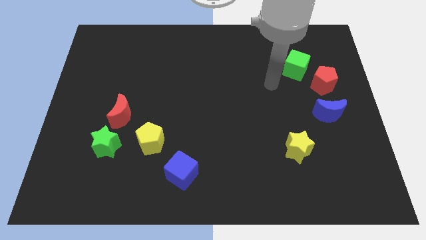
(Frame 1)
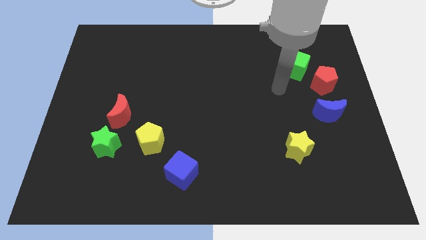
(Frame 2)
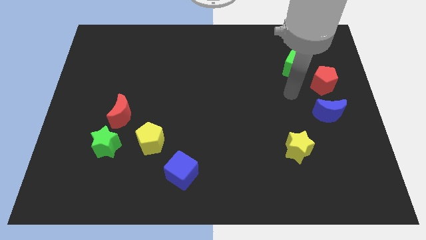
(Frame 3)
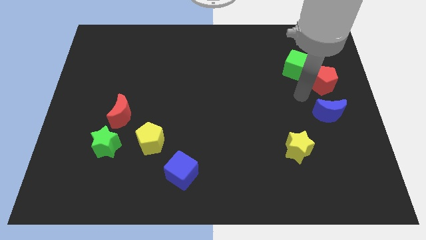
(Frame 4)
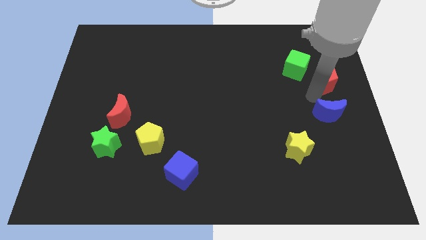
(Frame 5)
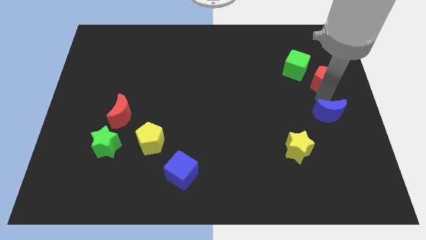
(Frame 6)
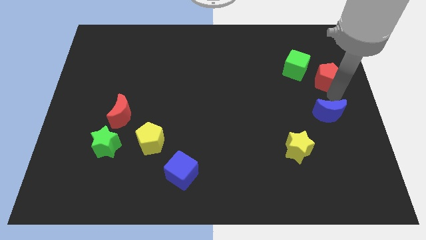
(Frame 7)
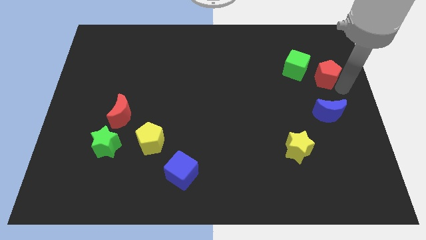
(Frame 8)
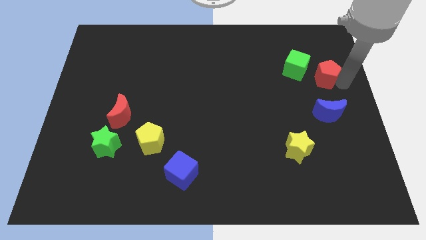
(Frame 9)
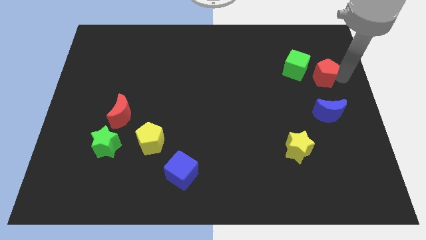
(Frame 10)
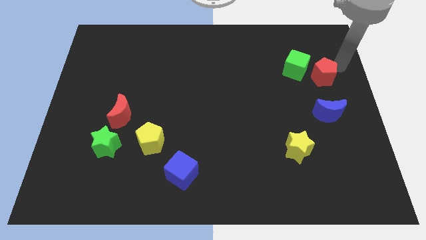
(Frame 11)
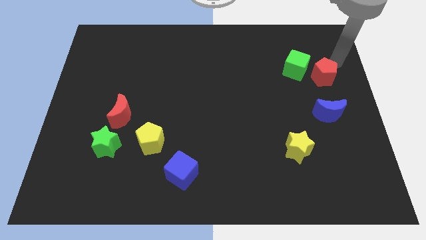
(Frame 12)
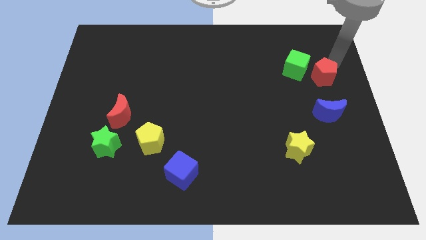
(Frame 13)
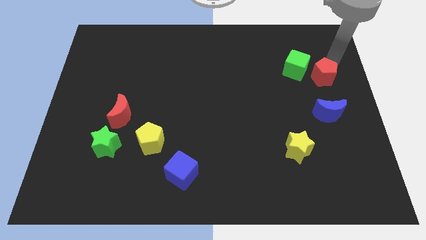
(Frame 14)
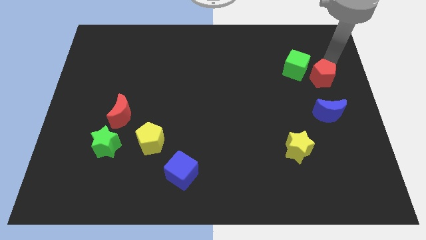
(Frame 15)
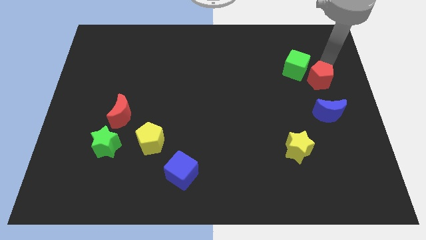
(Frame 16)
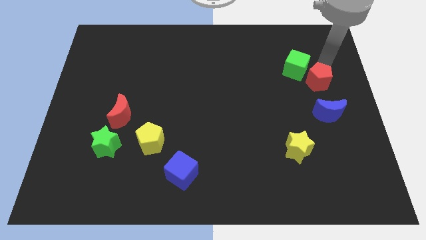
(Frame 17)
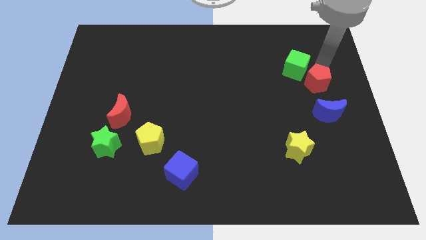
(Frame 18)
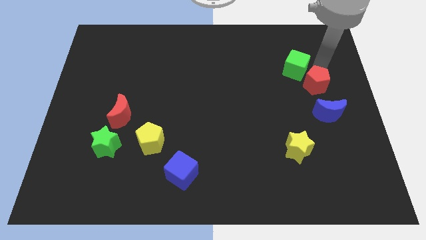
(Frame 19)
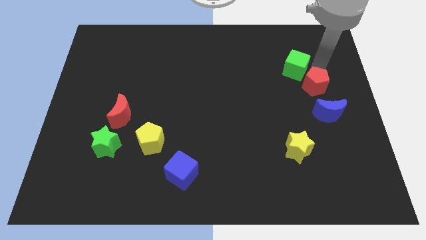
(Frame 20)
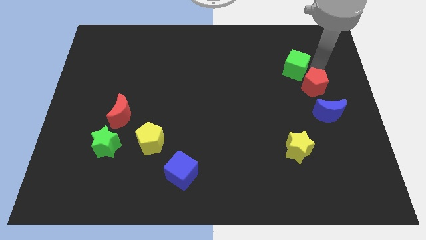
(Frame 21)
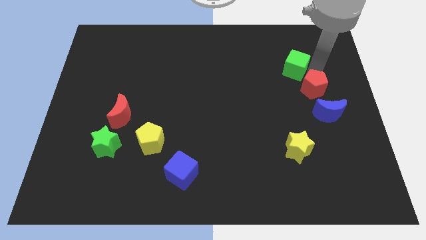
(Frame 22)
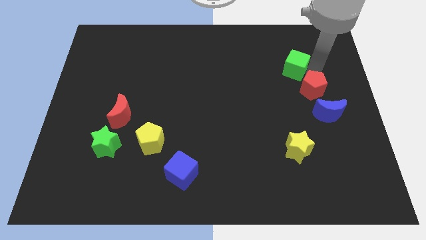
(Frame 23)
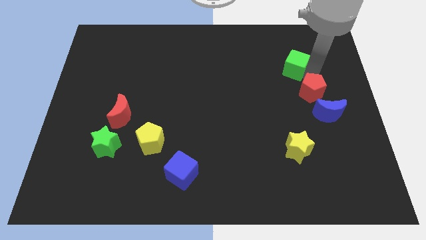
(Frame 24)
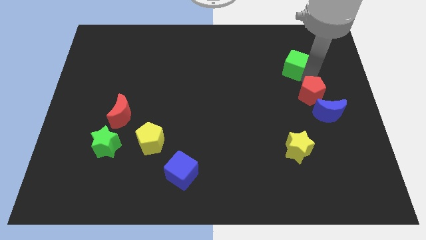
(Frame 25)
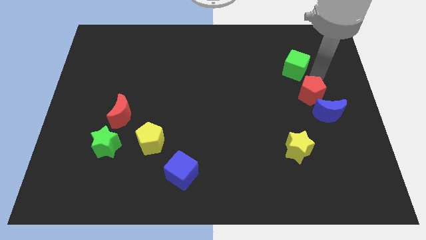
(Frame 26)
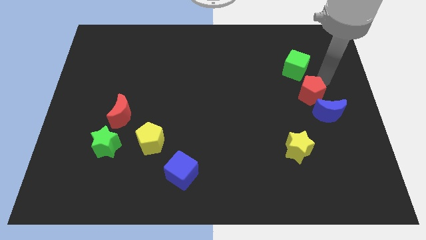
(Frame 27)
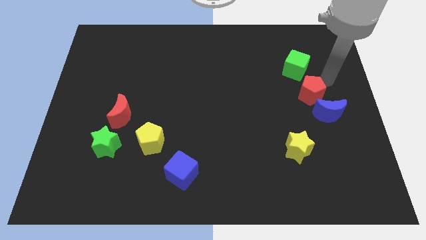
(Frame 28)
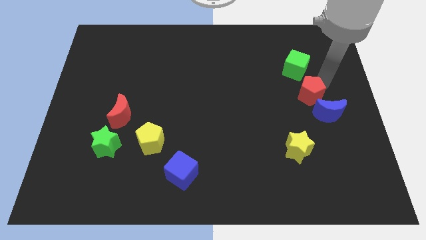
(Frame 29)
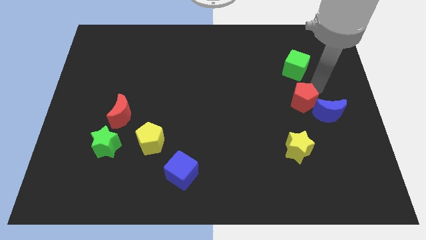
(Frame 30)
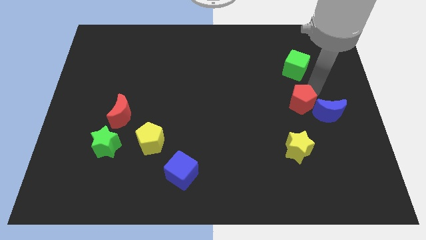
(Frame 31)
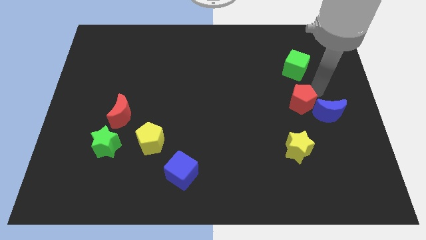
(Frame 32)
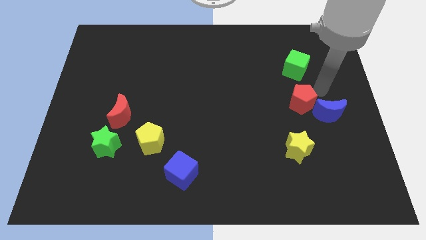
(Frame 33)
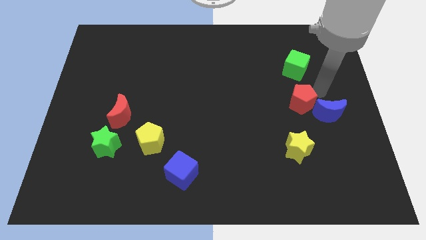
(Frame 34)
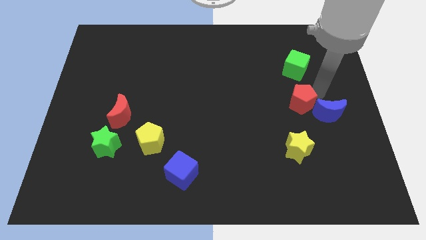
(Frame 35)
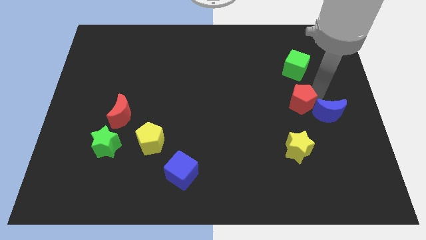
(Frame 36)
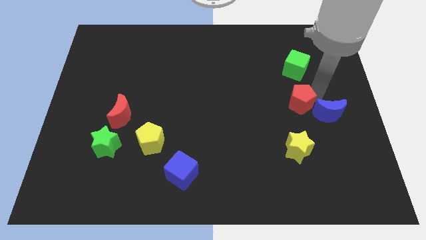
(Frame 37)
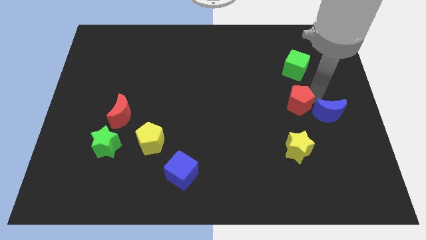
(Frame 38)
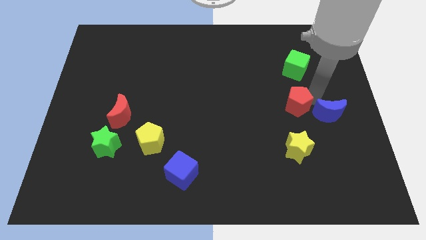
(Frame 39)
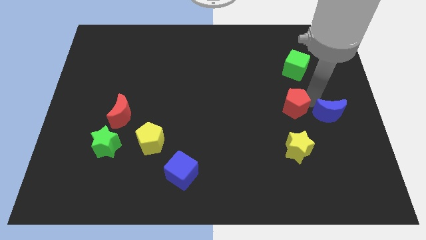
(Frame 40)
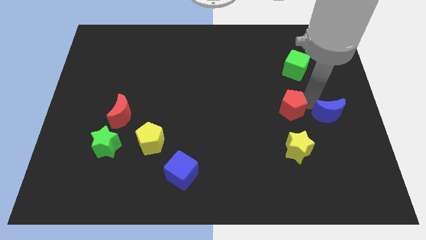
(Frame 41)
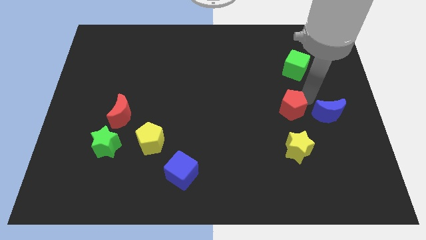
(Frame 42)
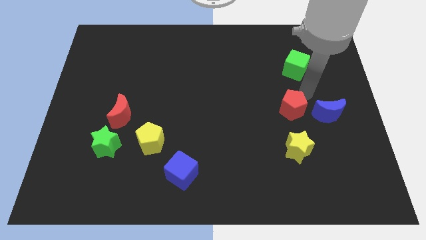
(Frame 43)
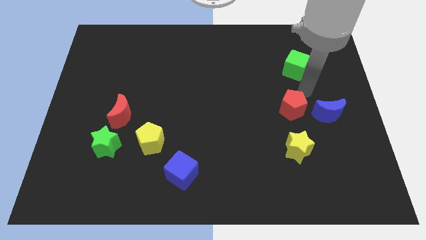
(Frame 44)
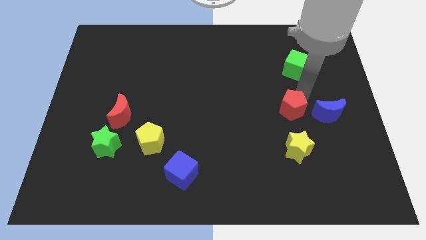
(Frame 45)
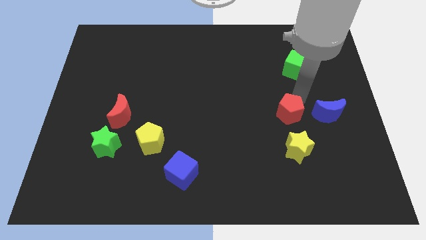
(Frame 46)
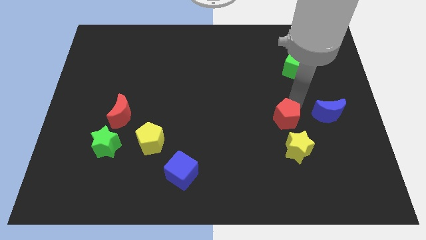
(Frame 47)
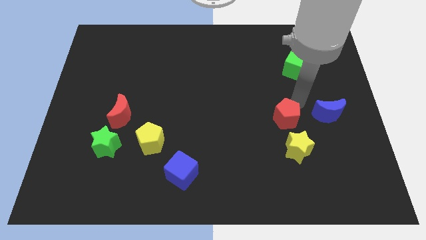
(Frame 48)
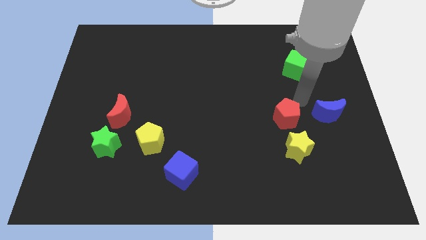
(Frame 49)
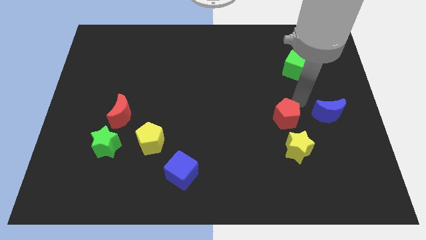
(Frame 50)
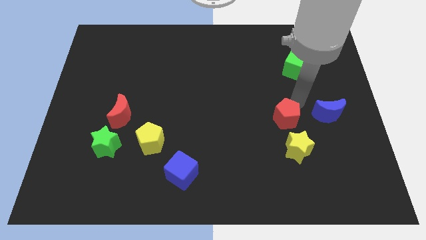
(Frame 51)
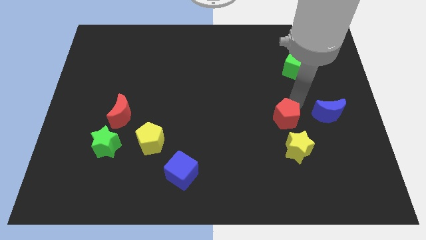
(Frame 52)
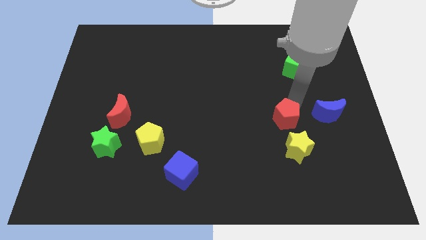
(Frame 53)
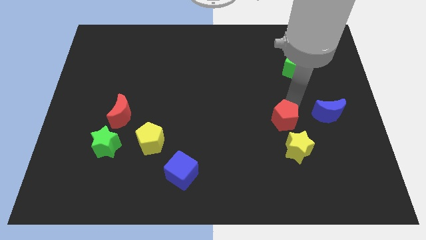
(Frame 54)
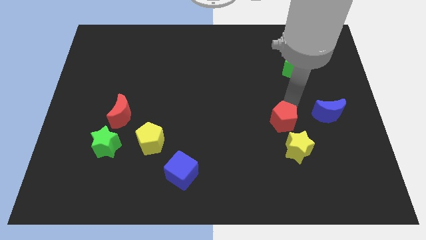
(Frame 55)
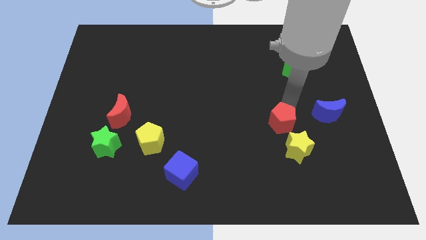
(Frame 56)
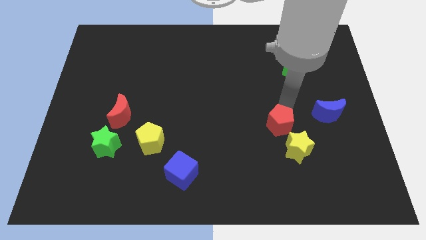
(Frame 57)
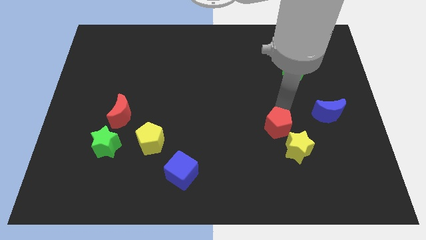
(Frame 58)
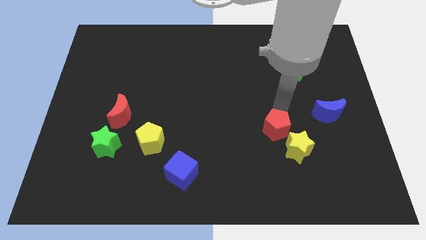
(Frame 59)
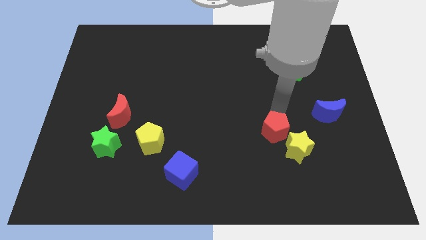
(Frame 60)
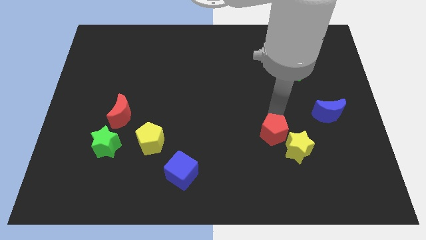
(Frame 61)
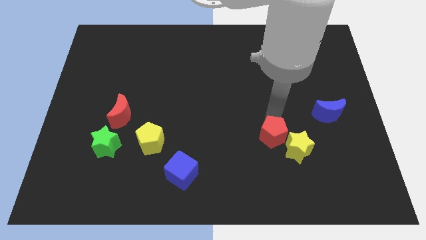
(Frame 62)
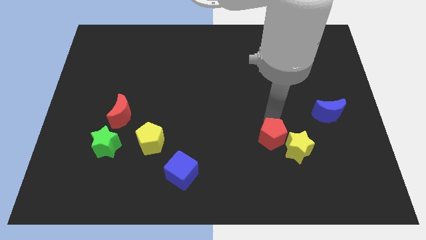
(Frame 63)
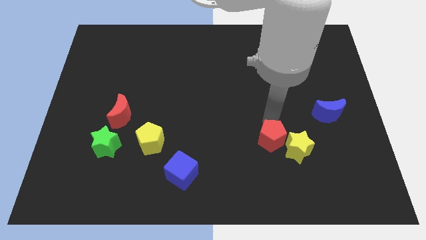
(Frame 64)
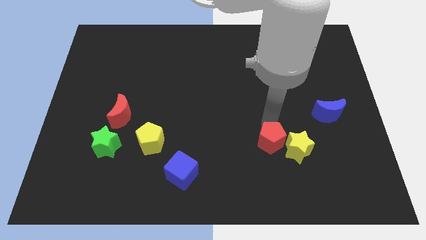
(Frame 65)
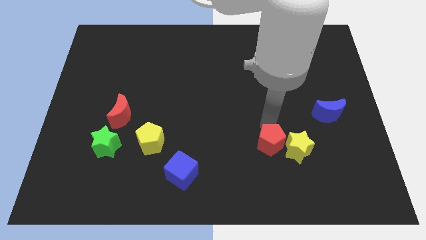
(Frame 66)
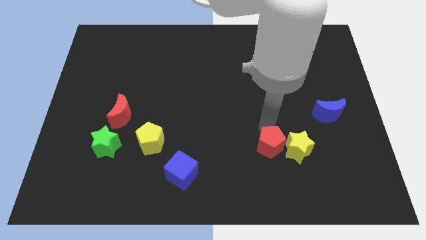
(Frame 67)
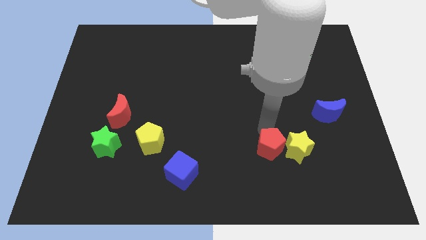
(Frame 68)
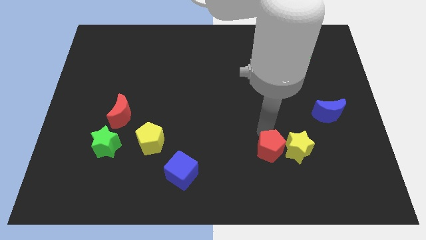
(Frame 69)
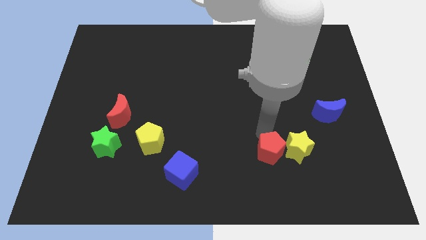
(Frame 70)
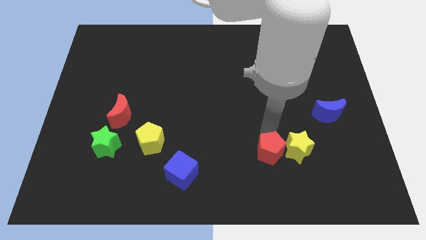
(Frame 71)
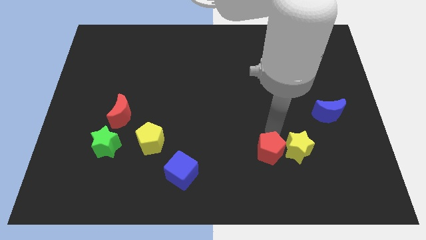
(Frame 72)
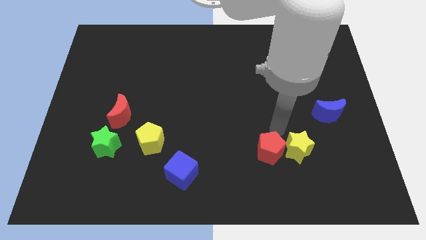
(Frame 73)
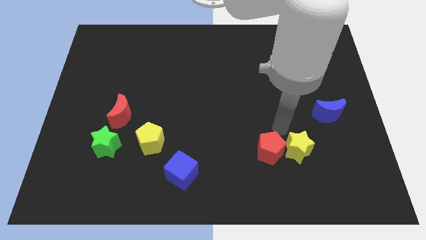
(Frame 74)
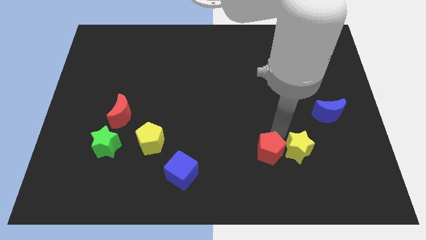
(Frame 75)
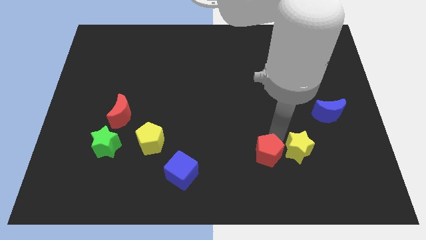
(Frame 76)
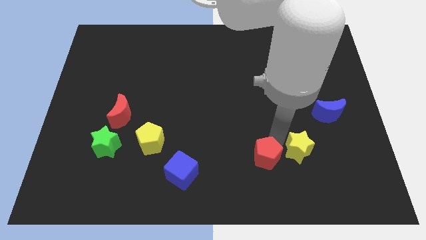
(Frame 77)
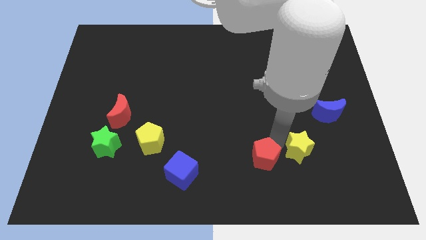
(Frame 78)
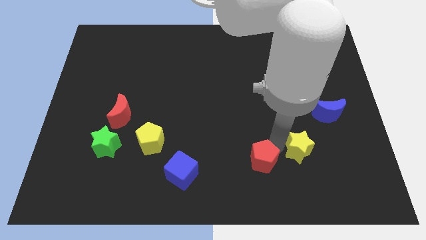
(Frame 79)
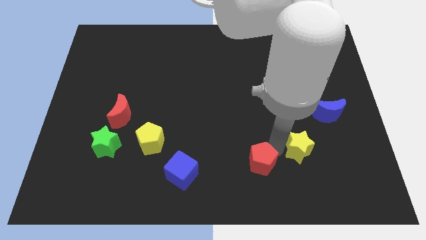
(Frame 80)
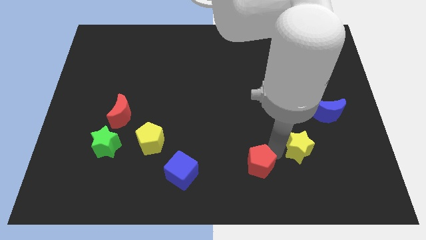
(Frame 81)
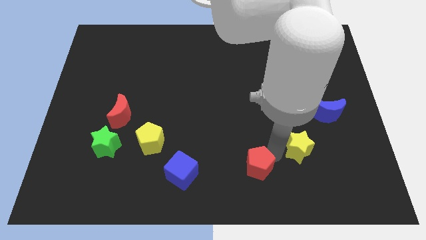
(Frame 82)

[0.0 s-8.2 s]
push the red pentagon to the bottom side
